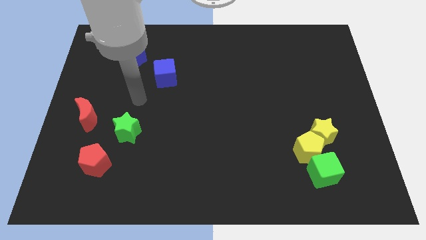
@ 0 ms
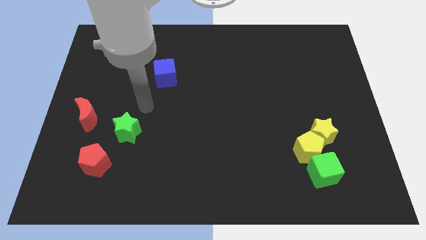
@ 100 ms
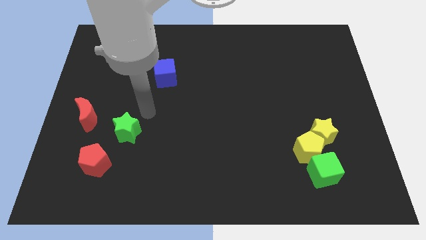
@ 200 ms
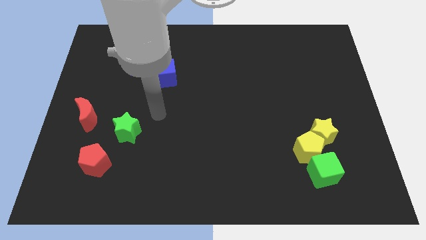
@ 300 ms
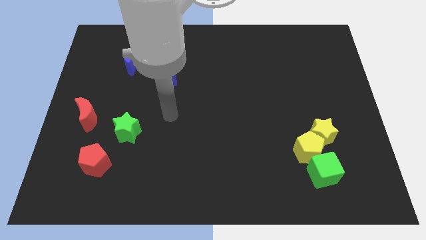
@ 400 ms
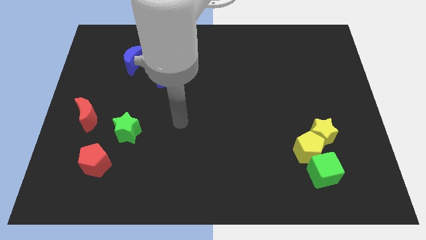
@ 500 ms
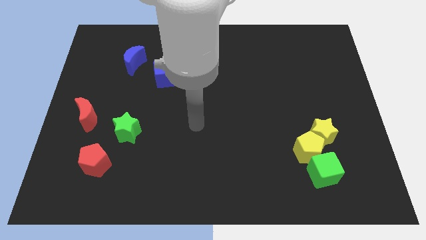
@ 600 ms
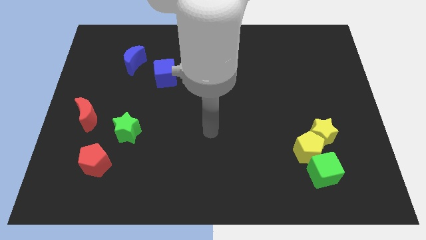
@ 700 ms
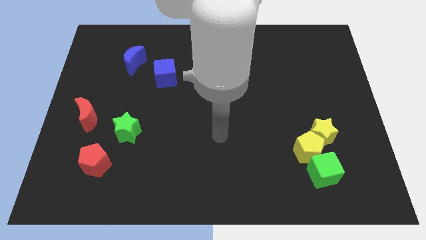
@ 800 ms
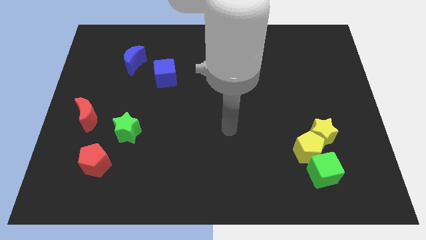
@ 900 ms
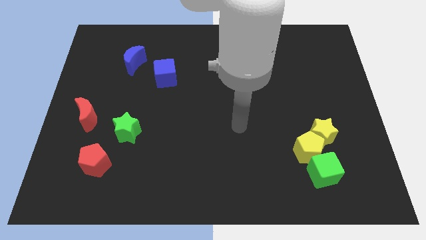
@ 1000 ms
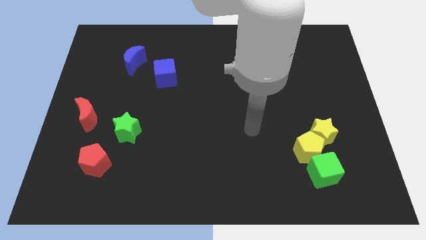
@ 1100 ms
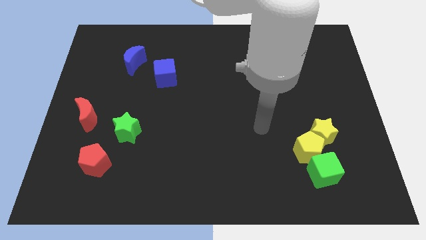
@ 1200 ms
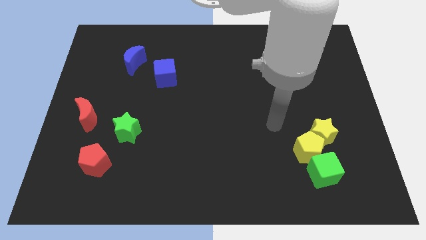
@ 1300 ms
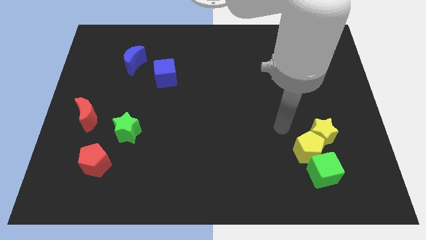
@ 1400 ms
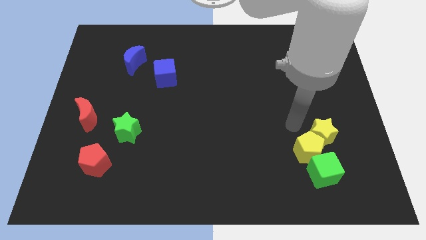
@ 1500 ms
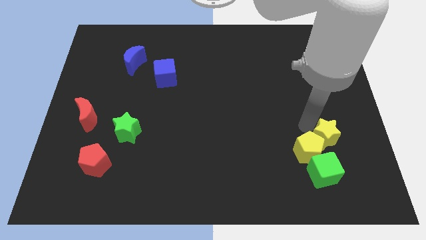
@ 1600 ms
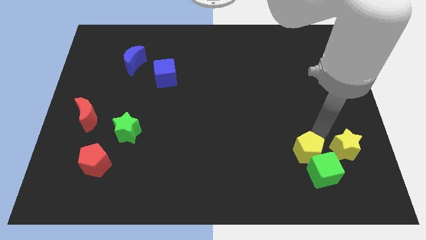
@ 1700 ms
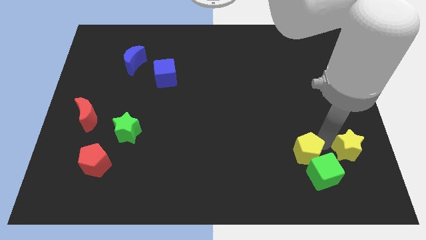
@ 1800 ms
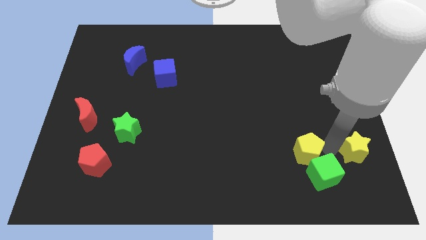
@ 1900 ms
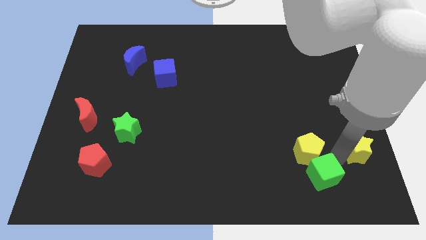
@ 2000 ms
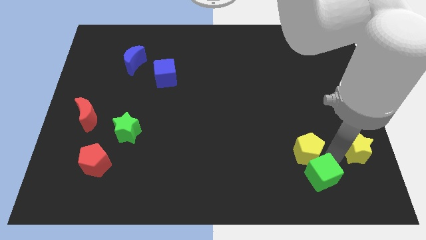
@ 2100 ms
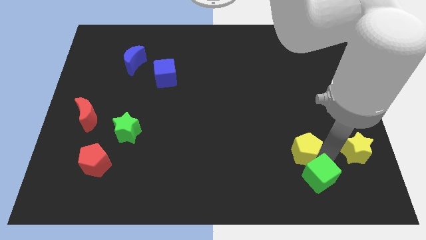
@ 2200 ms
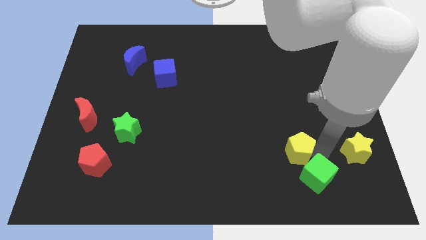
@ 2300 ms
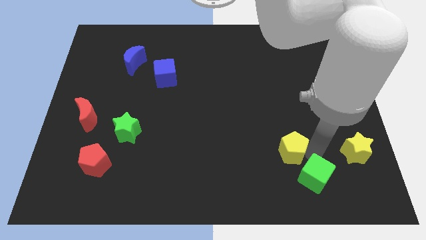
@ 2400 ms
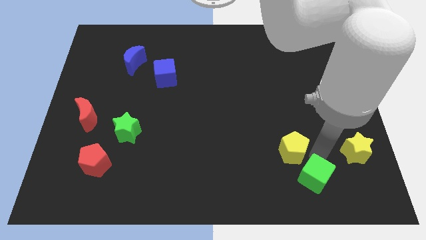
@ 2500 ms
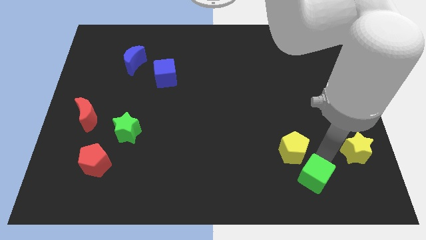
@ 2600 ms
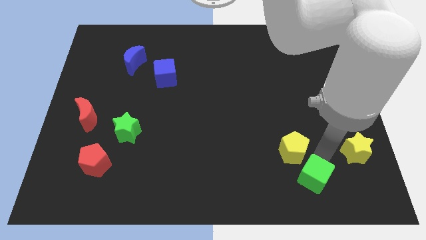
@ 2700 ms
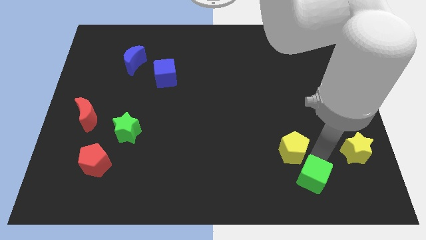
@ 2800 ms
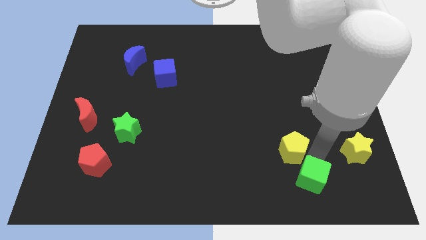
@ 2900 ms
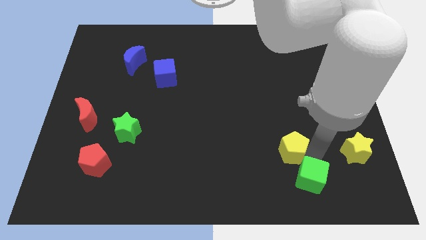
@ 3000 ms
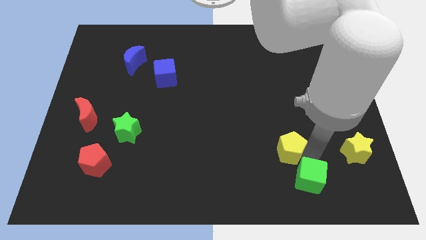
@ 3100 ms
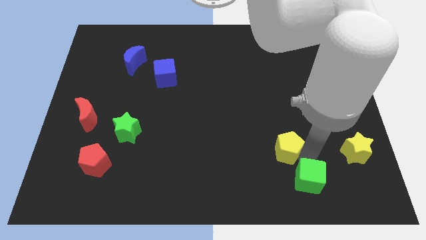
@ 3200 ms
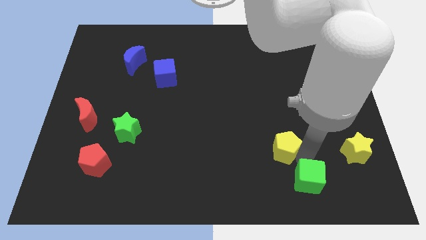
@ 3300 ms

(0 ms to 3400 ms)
move the yellow pentagon away from the yellow star and green cube

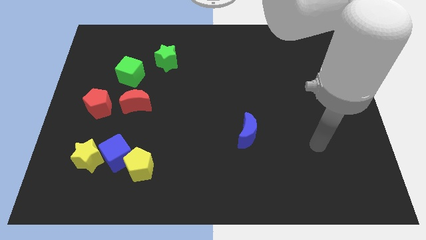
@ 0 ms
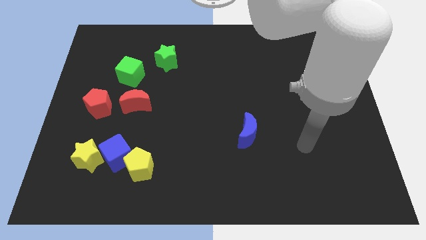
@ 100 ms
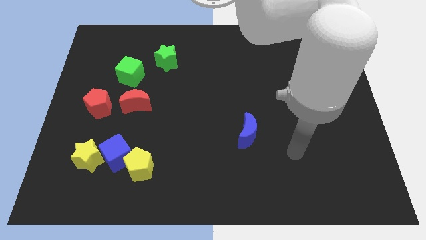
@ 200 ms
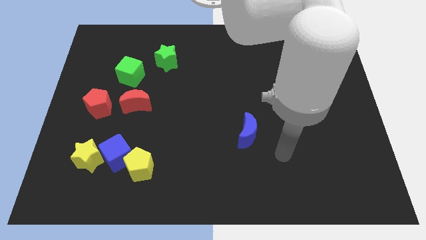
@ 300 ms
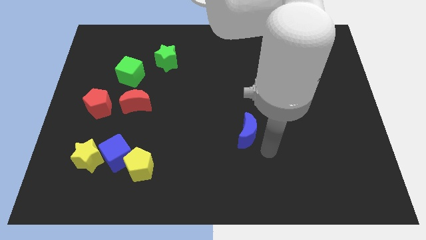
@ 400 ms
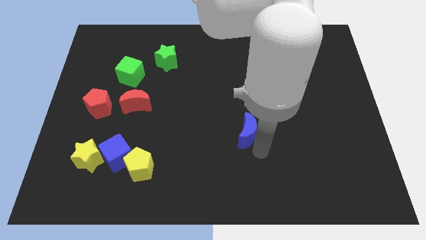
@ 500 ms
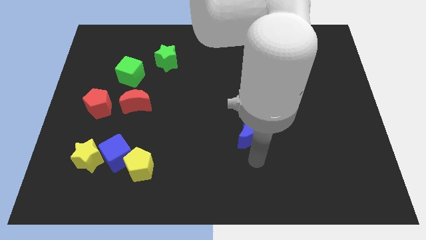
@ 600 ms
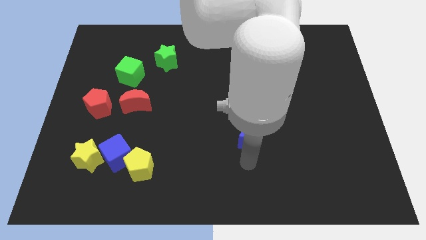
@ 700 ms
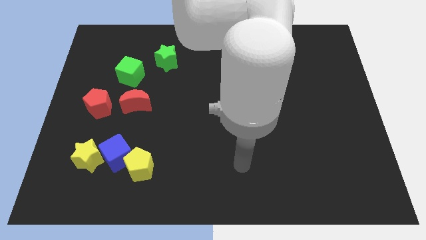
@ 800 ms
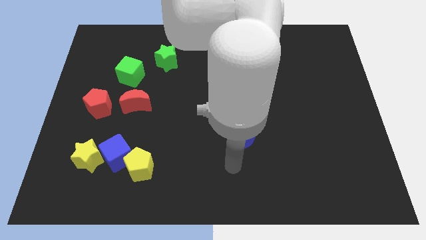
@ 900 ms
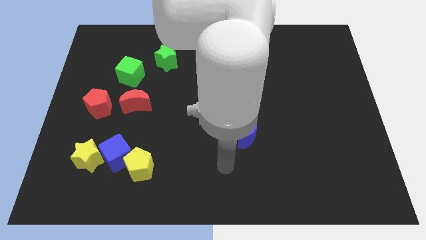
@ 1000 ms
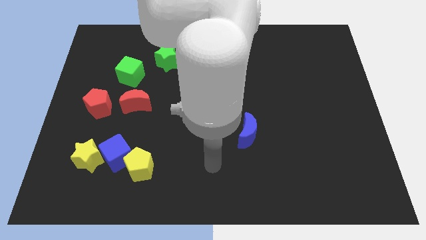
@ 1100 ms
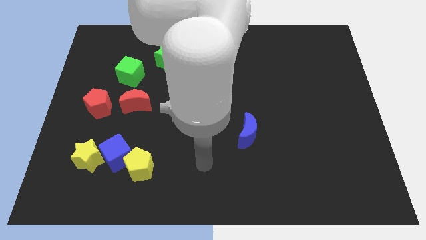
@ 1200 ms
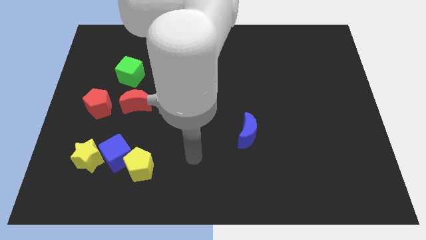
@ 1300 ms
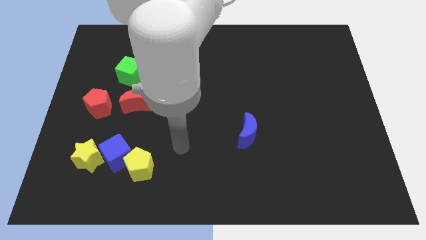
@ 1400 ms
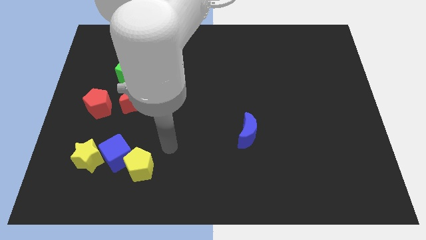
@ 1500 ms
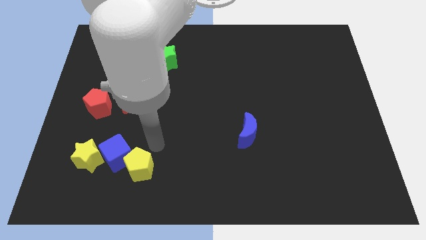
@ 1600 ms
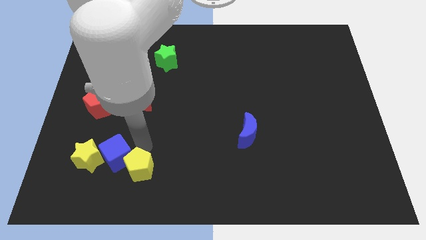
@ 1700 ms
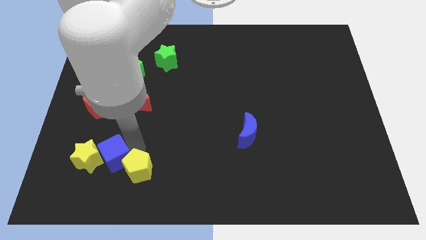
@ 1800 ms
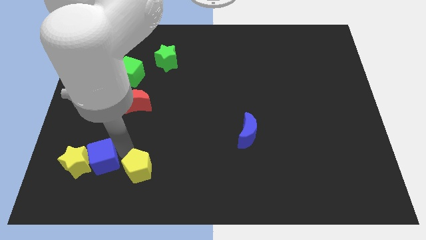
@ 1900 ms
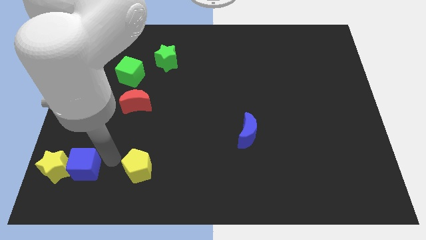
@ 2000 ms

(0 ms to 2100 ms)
move the yellow pentagon away from the blue cube

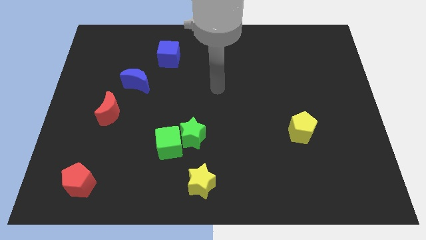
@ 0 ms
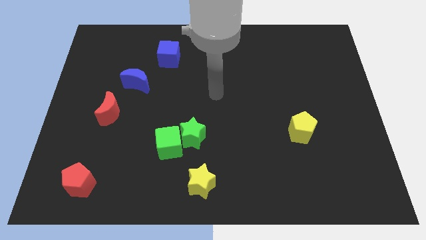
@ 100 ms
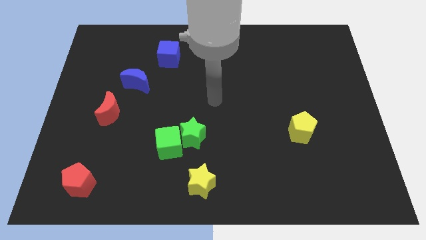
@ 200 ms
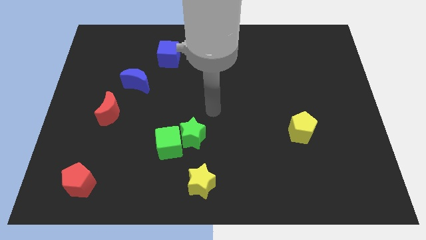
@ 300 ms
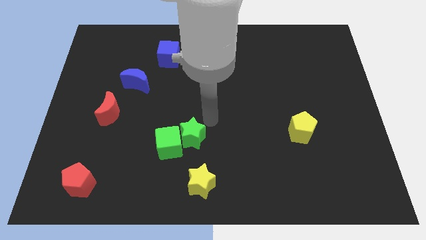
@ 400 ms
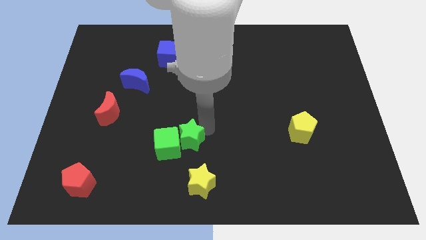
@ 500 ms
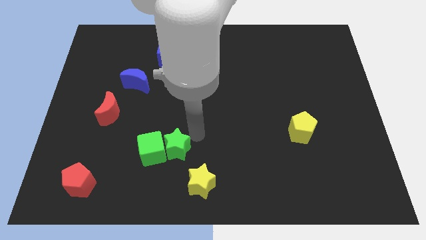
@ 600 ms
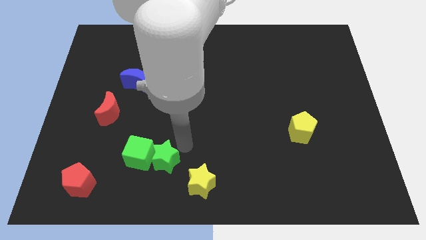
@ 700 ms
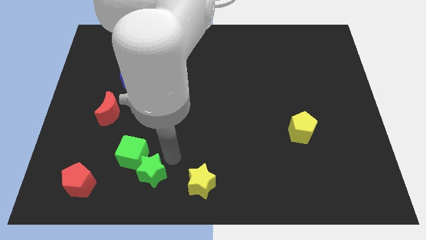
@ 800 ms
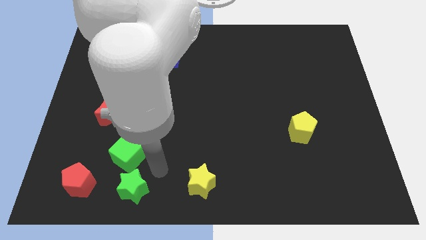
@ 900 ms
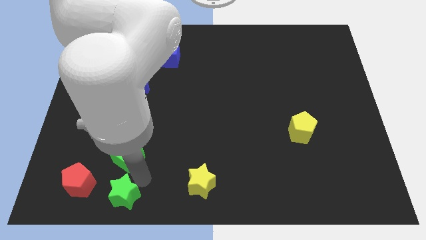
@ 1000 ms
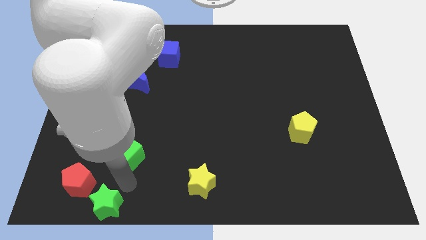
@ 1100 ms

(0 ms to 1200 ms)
pull the green cube apart from the green star

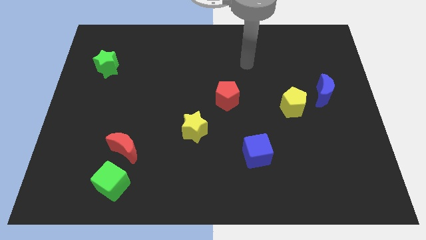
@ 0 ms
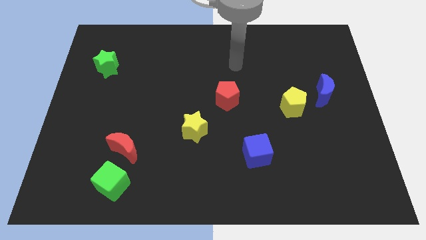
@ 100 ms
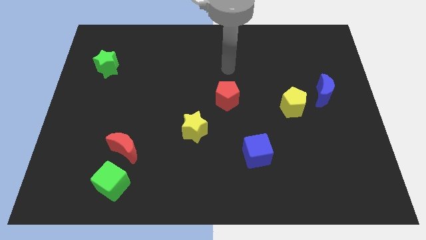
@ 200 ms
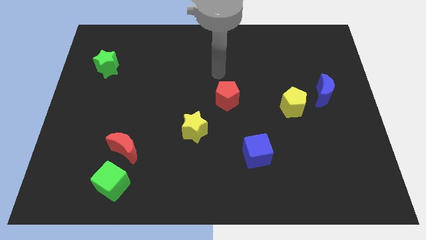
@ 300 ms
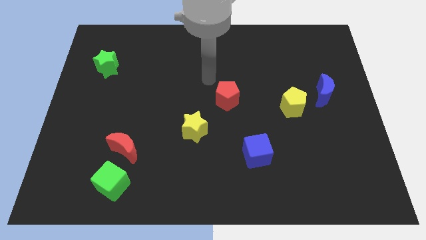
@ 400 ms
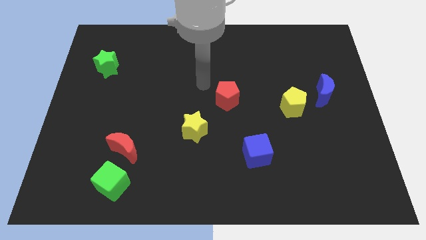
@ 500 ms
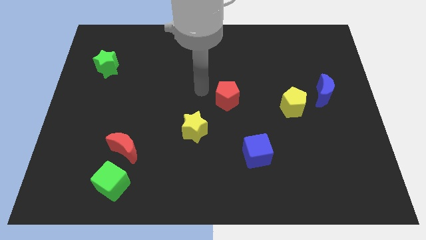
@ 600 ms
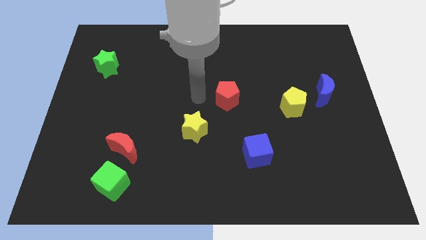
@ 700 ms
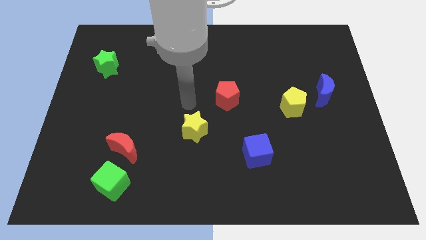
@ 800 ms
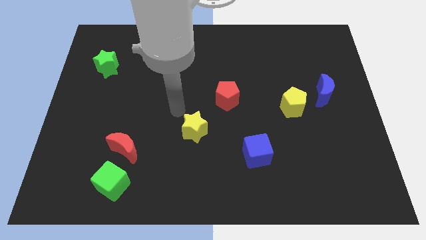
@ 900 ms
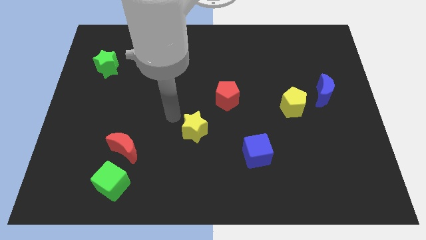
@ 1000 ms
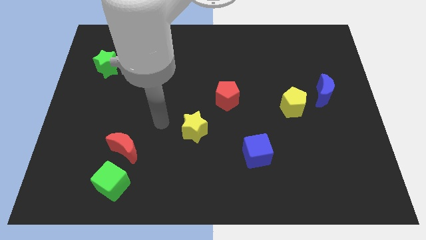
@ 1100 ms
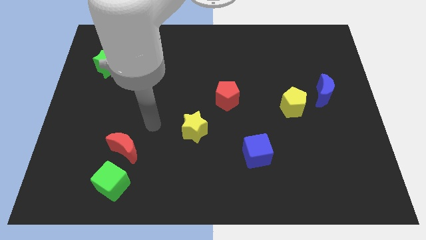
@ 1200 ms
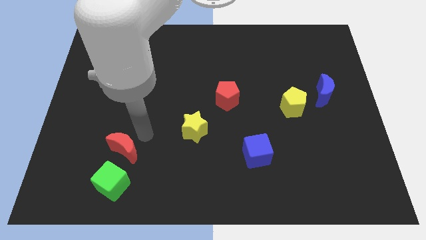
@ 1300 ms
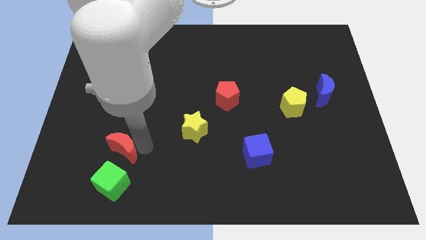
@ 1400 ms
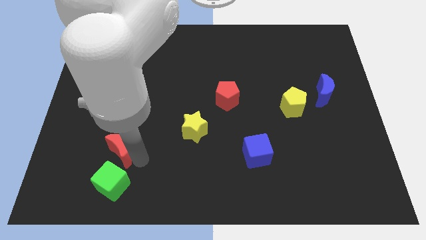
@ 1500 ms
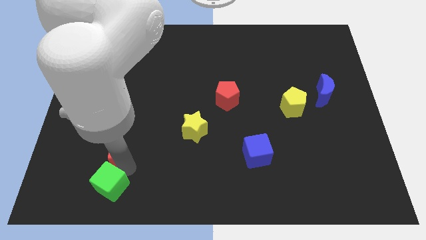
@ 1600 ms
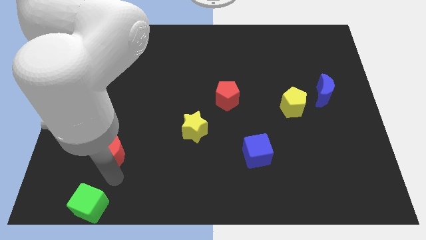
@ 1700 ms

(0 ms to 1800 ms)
separate the red moon from the green cube

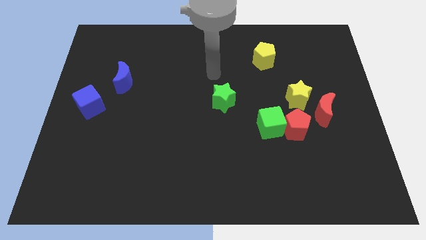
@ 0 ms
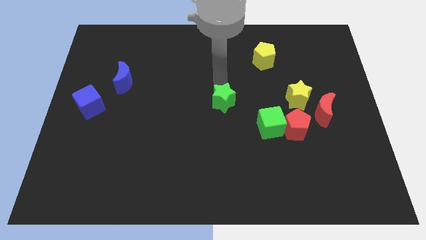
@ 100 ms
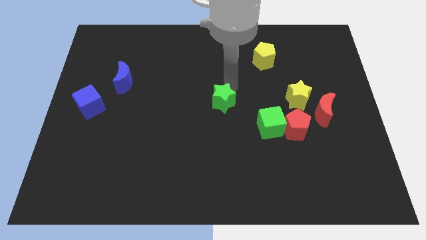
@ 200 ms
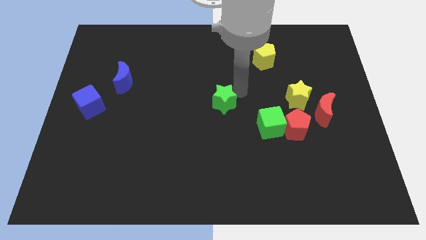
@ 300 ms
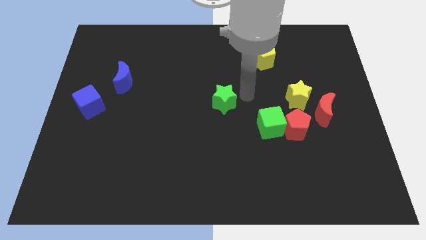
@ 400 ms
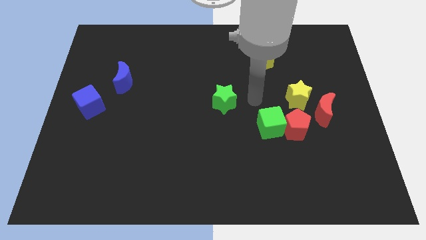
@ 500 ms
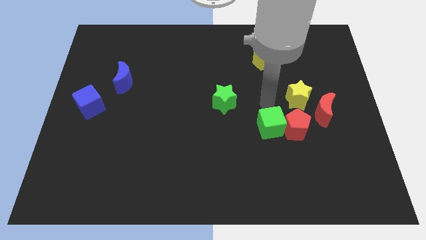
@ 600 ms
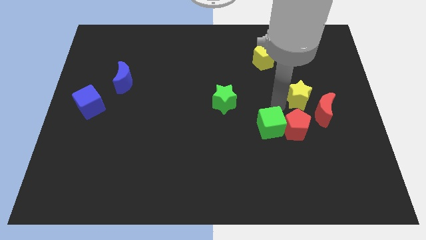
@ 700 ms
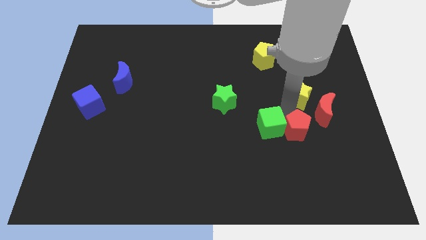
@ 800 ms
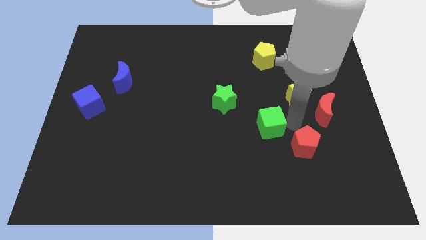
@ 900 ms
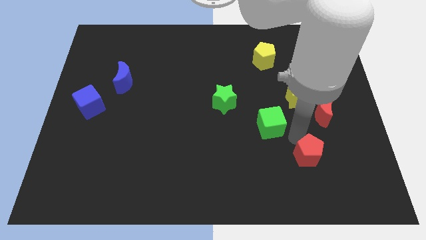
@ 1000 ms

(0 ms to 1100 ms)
move the green cube away from the red pentagon
